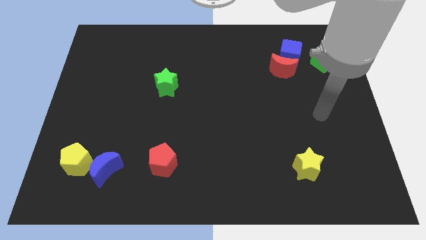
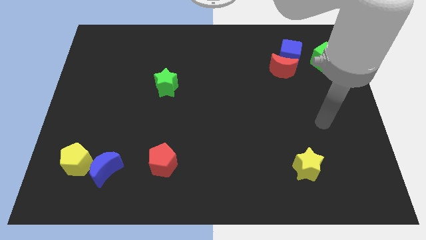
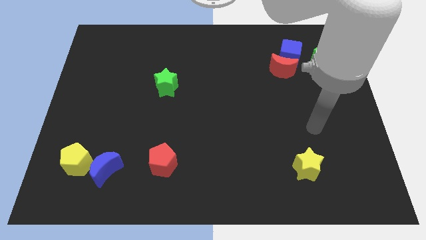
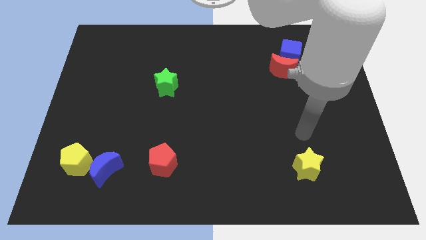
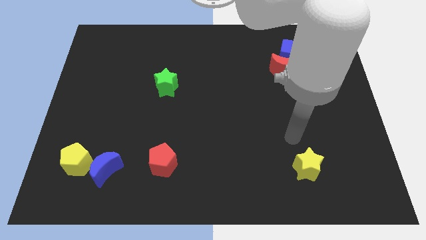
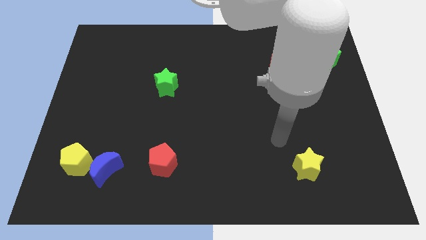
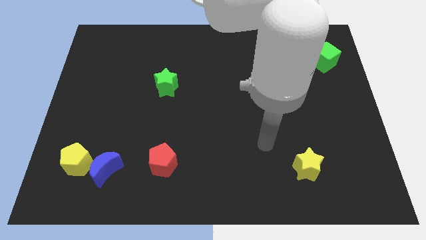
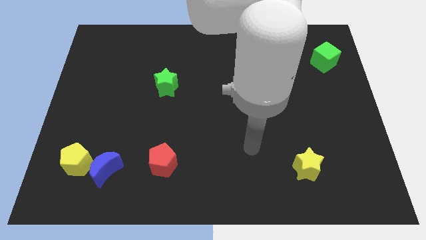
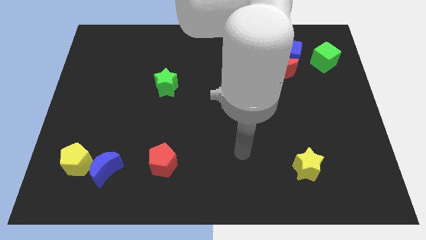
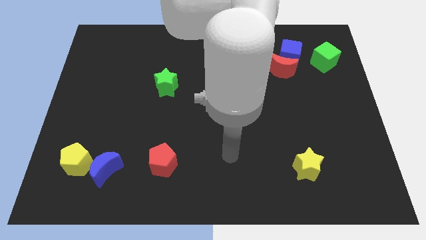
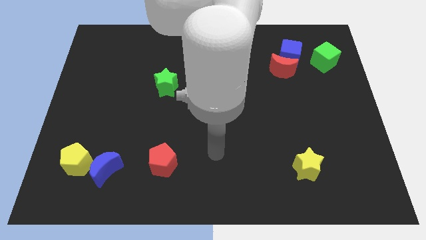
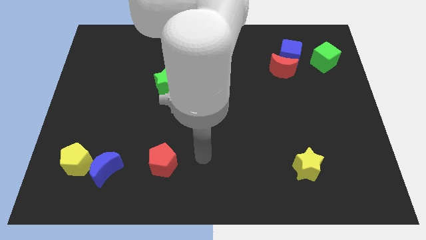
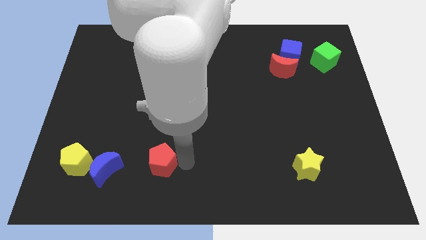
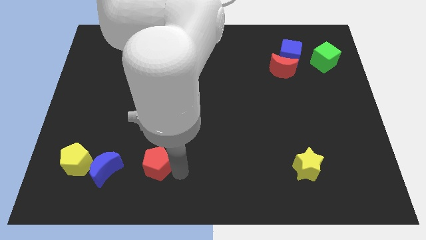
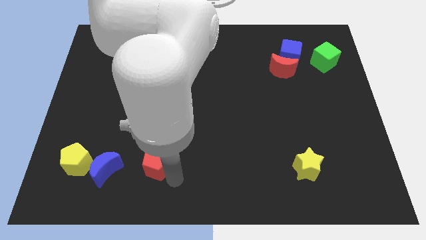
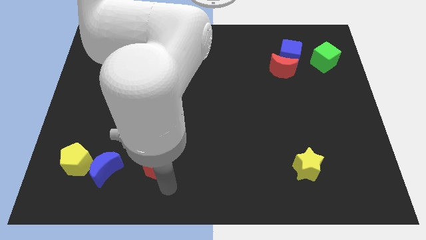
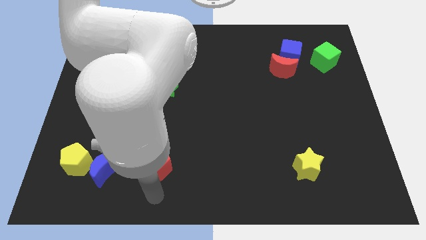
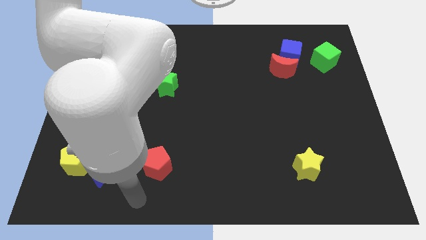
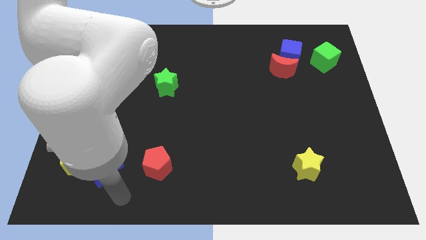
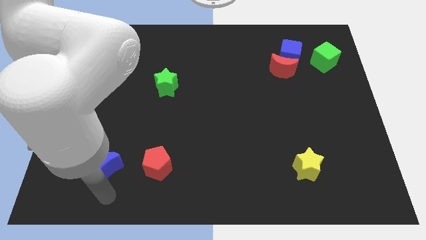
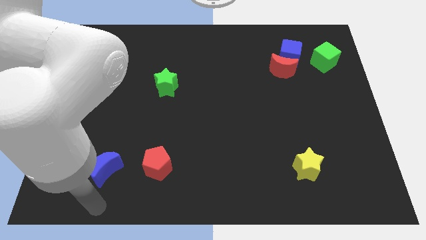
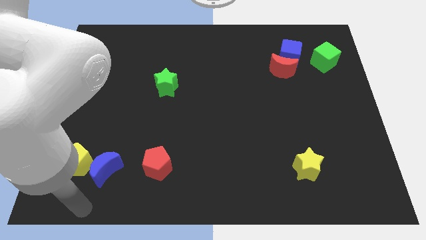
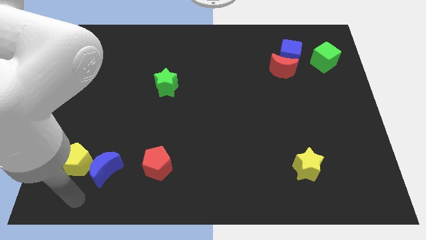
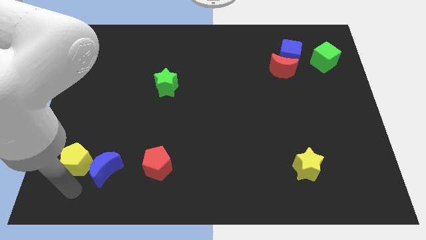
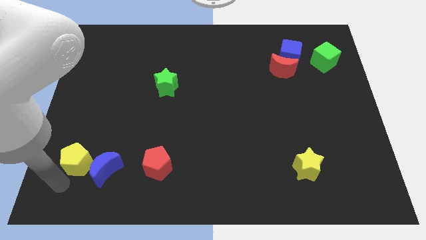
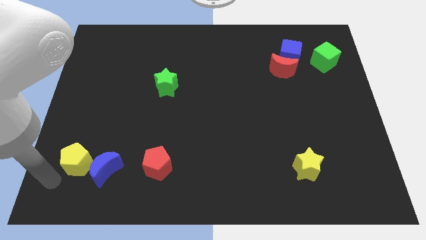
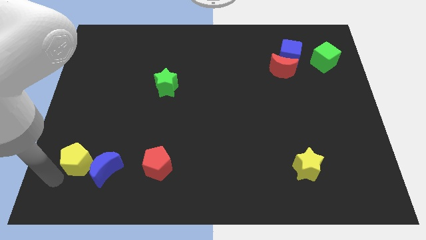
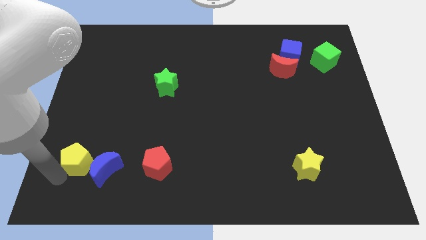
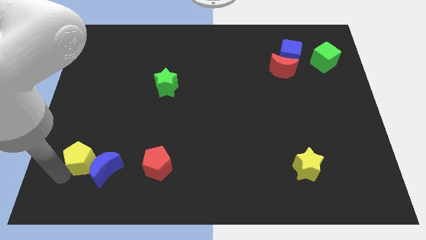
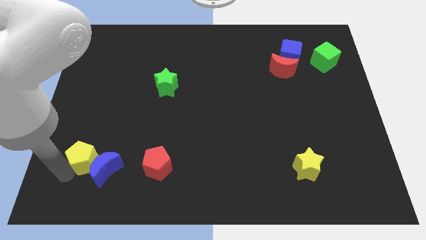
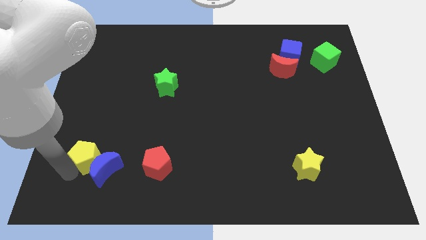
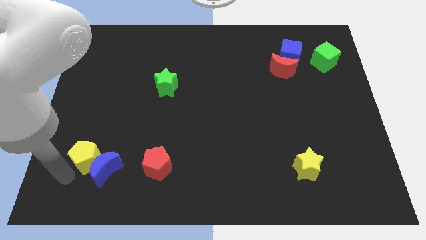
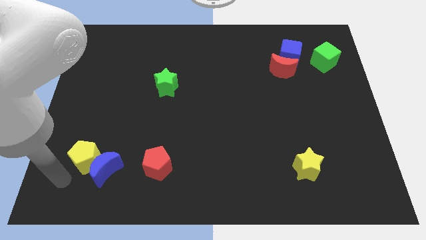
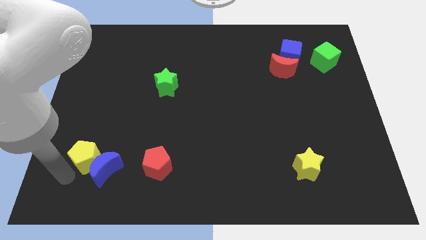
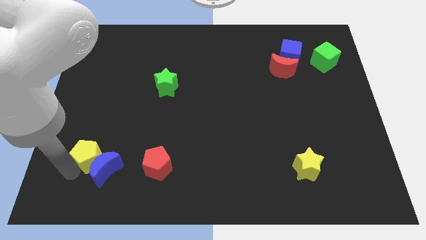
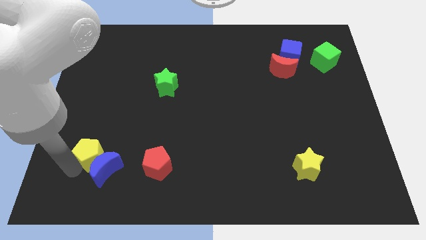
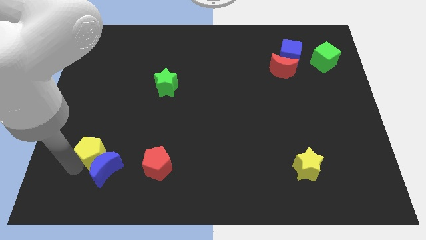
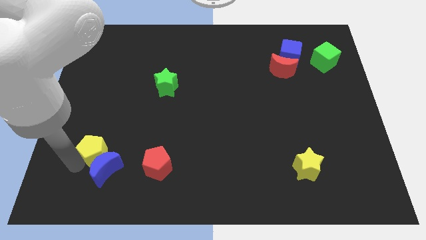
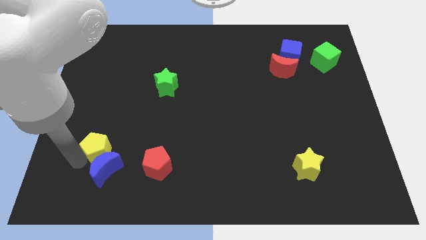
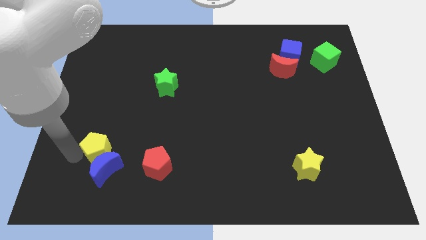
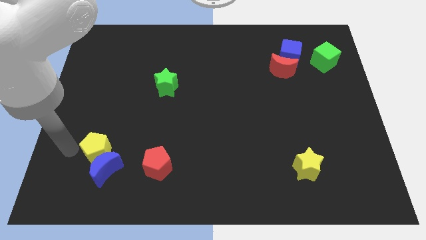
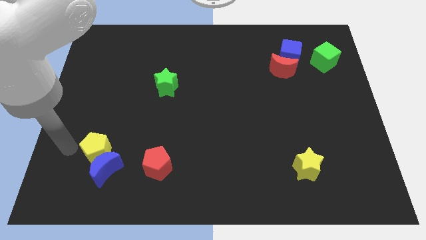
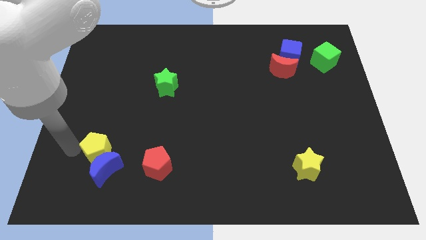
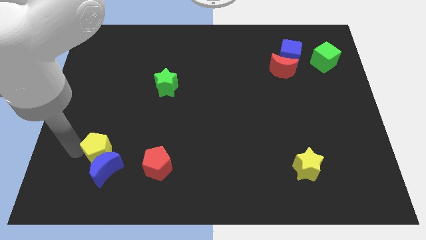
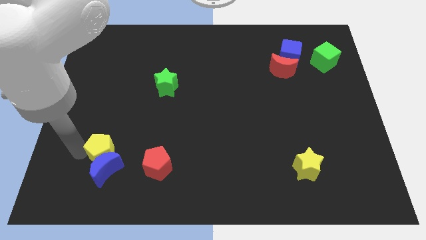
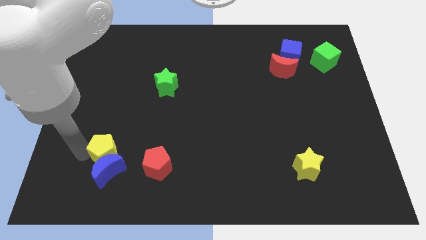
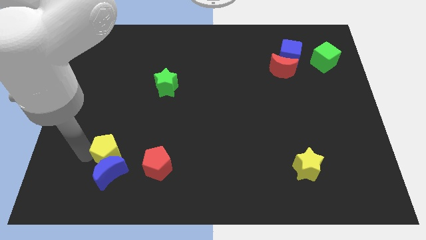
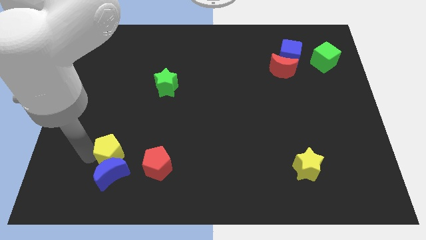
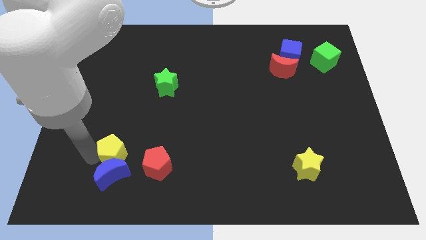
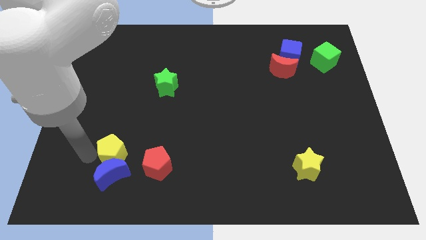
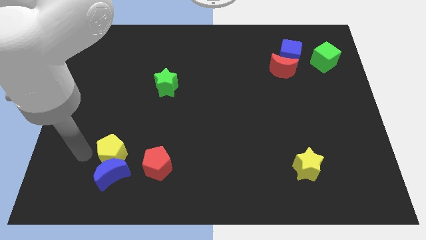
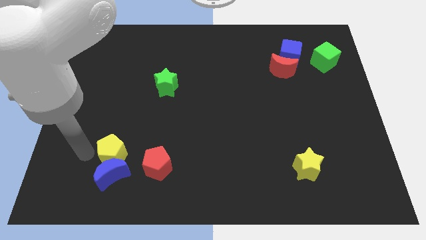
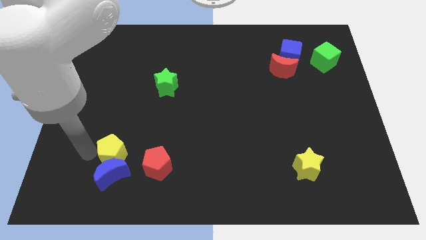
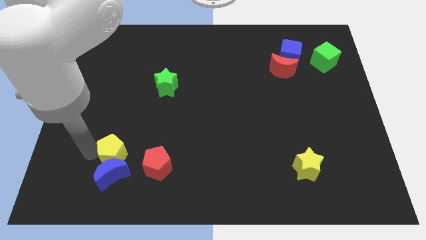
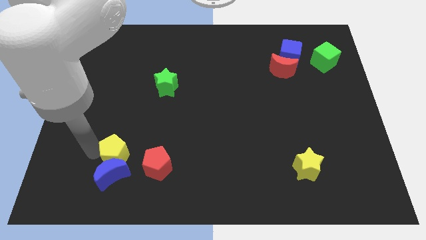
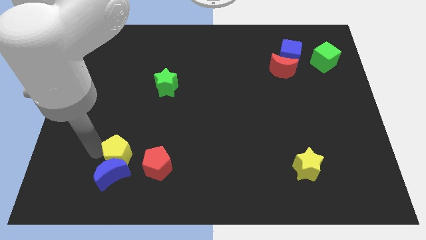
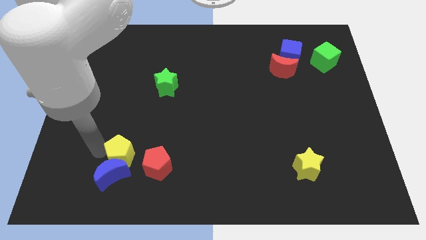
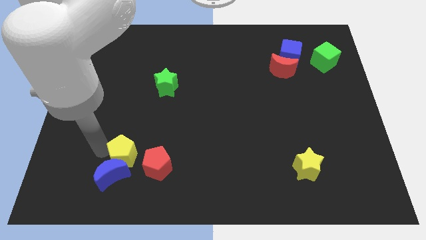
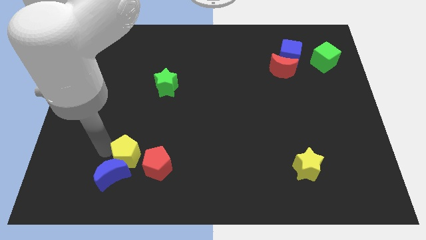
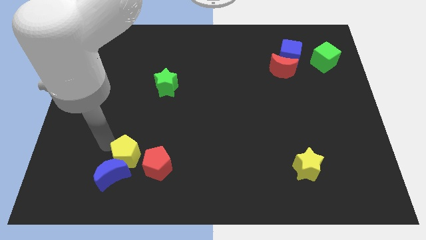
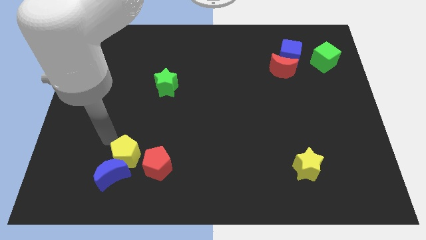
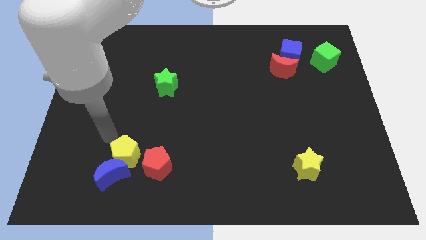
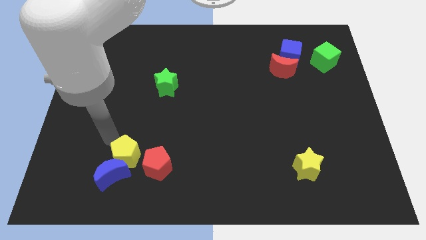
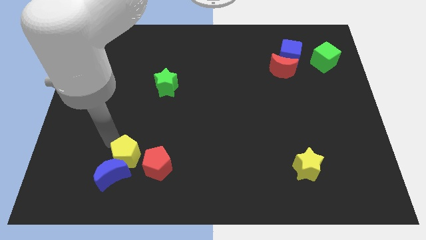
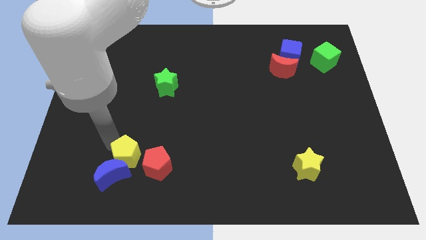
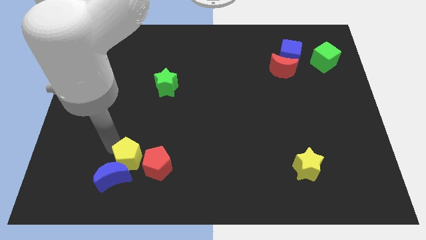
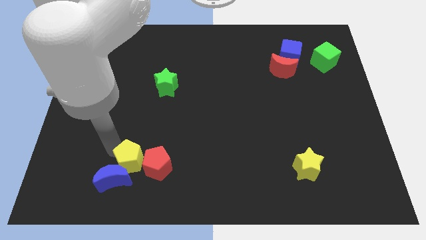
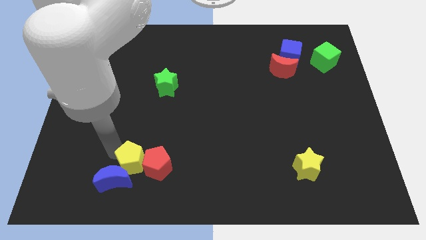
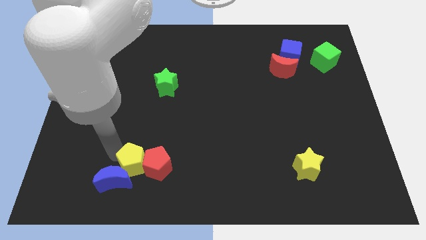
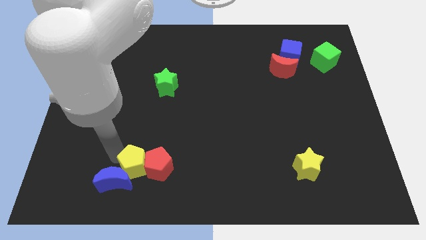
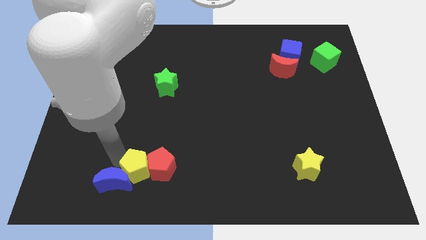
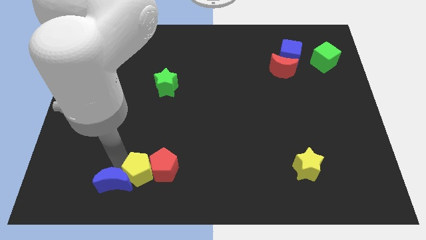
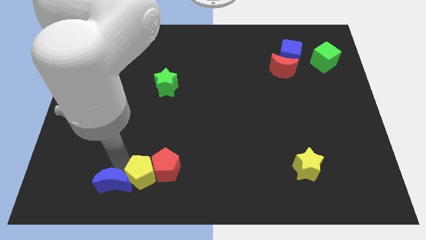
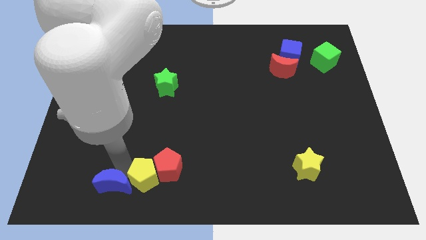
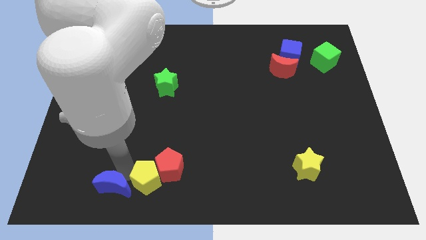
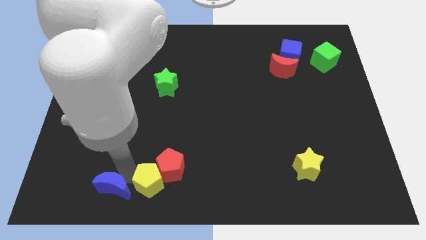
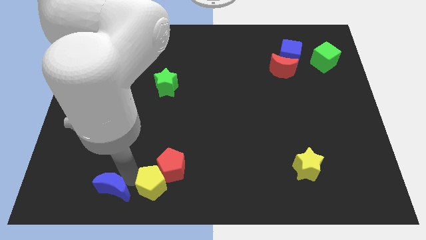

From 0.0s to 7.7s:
push the yellow pentagon to the bottom side
